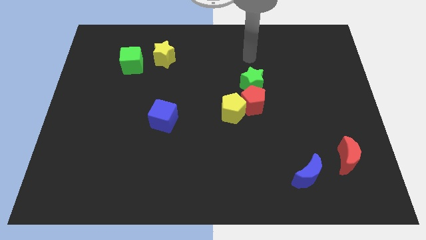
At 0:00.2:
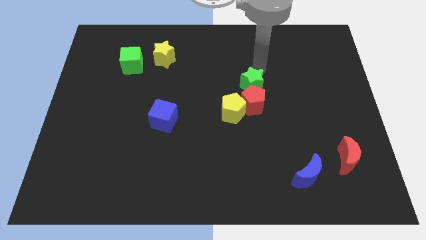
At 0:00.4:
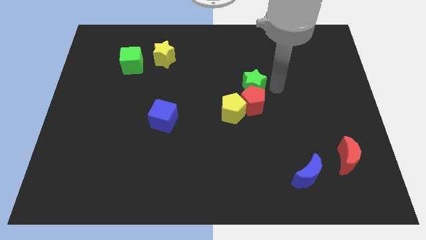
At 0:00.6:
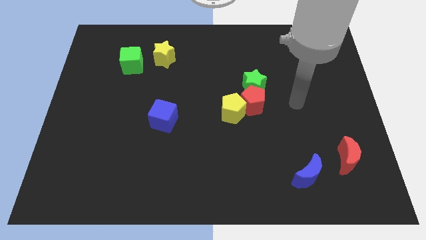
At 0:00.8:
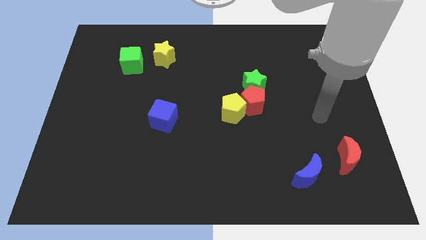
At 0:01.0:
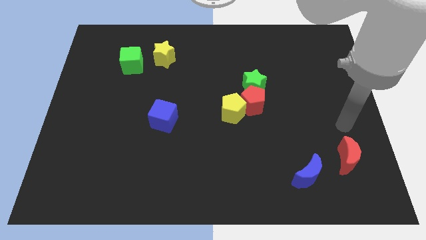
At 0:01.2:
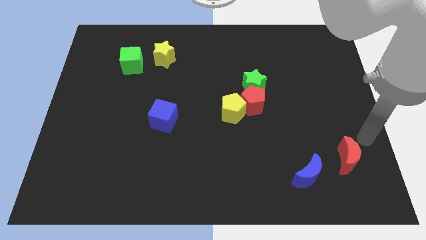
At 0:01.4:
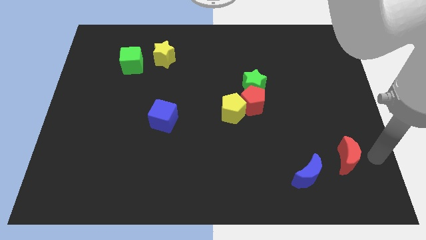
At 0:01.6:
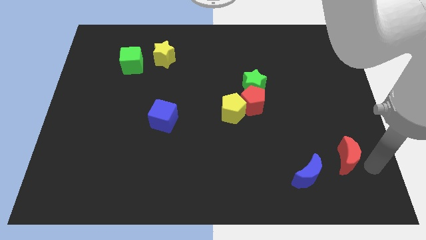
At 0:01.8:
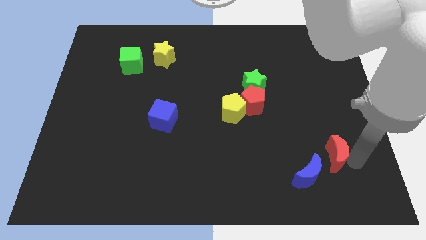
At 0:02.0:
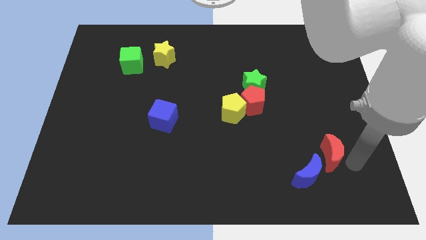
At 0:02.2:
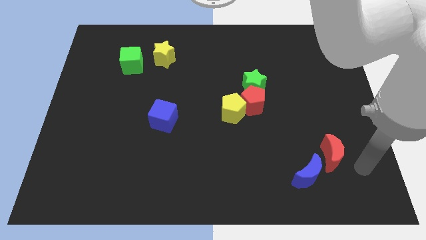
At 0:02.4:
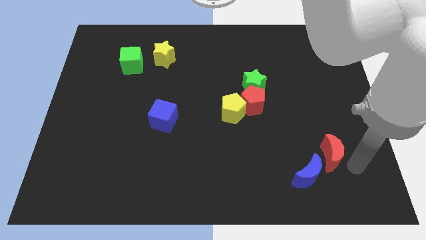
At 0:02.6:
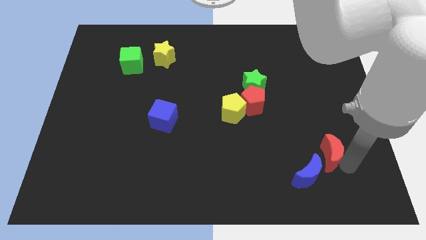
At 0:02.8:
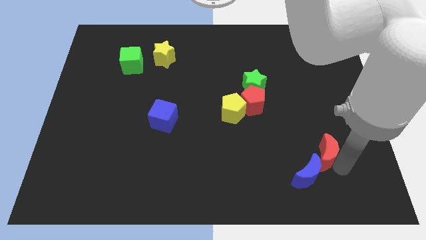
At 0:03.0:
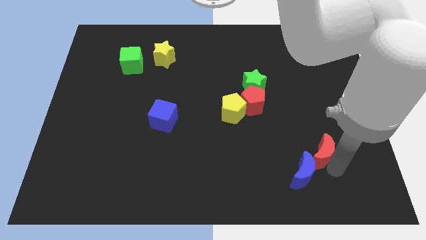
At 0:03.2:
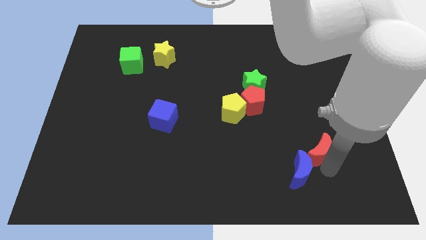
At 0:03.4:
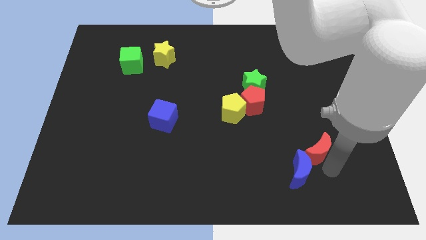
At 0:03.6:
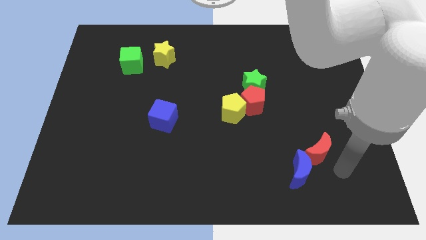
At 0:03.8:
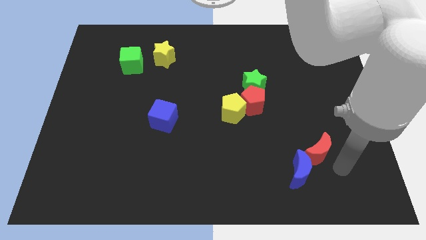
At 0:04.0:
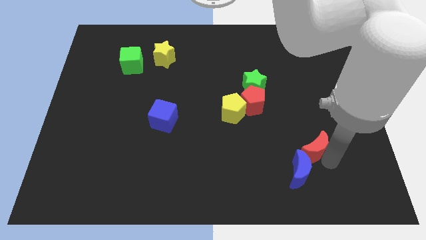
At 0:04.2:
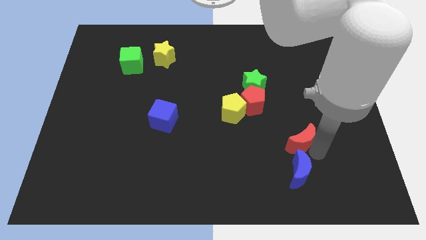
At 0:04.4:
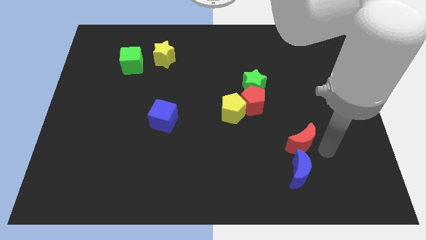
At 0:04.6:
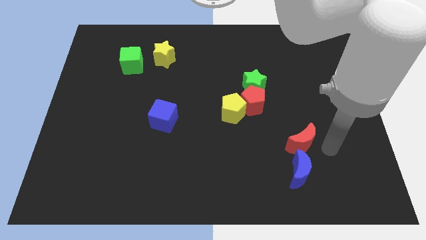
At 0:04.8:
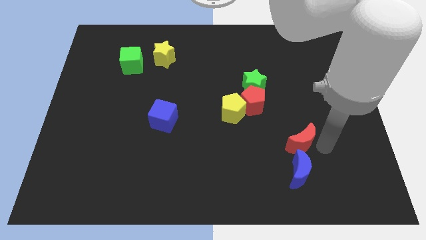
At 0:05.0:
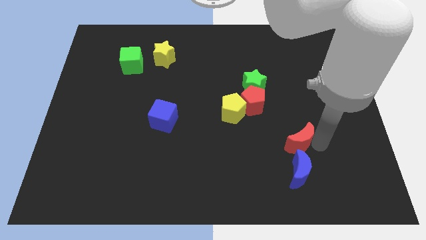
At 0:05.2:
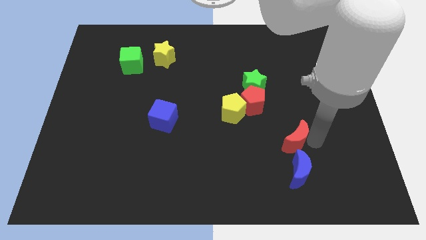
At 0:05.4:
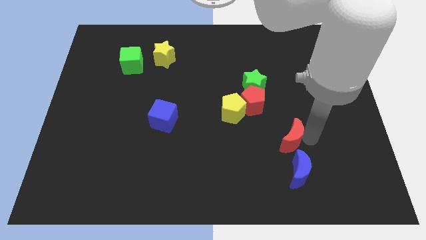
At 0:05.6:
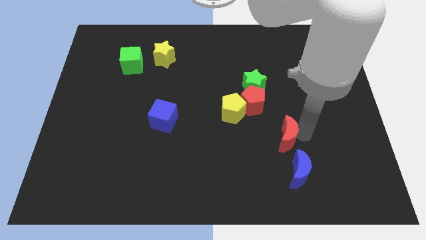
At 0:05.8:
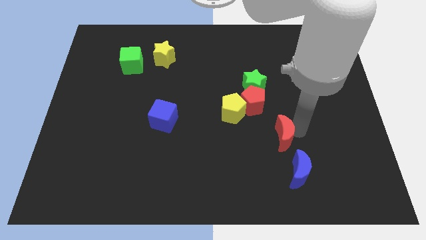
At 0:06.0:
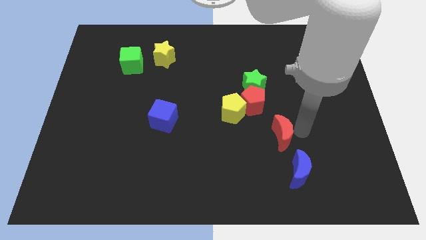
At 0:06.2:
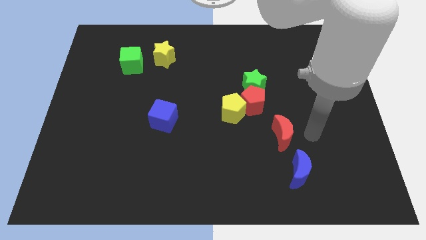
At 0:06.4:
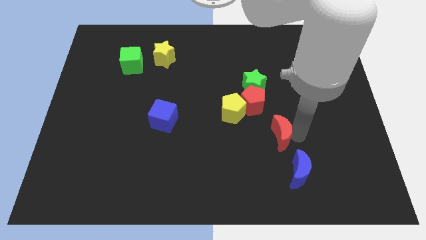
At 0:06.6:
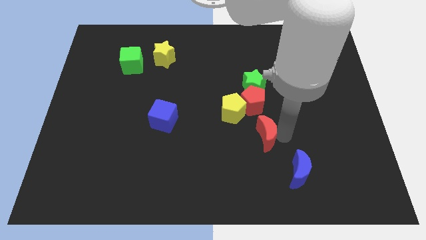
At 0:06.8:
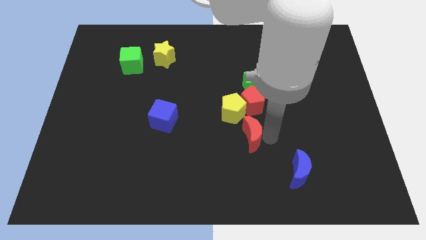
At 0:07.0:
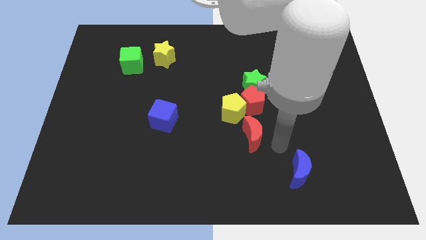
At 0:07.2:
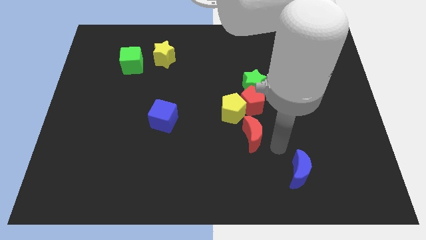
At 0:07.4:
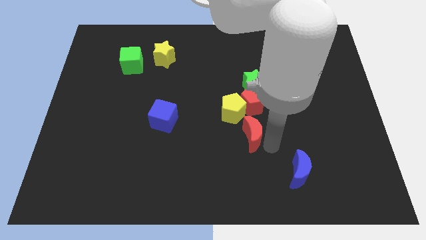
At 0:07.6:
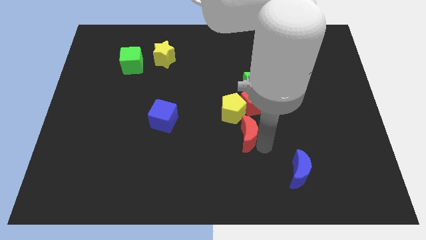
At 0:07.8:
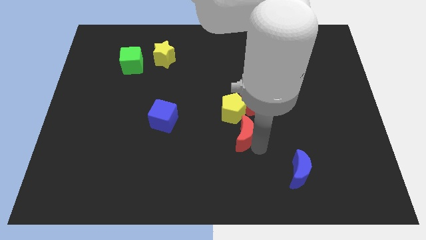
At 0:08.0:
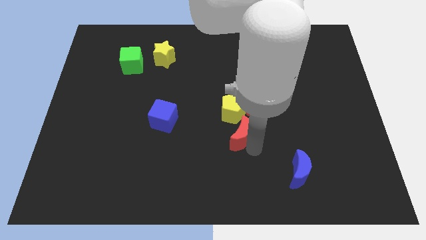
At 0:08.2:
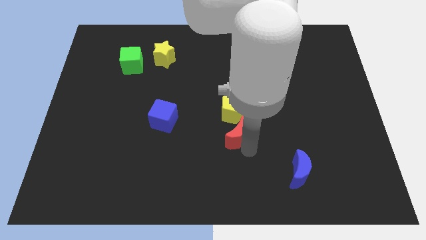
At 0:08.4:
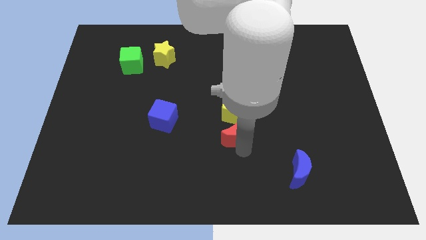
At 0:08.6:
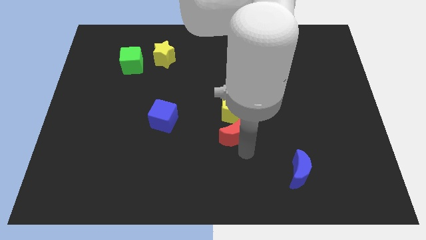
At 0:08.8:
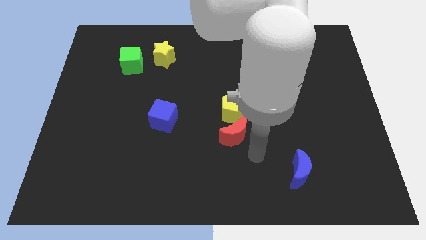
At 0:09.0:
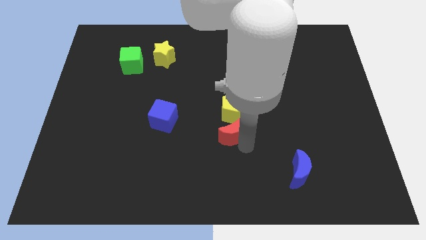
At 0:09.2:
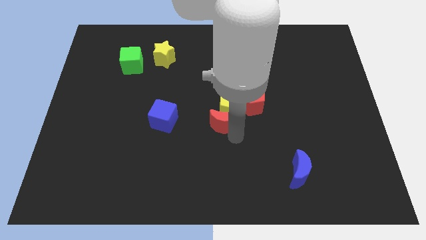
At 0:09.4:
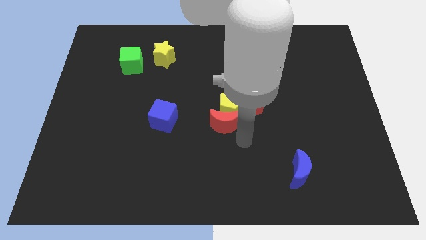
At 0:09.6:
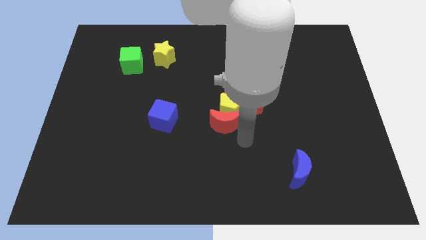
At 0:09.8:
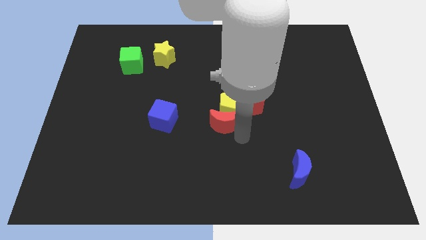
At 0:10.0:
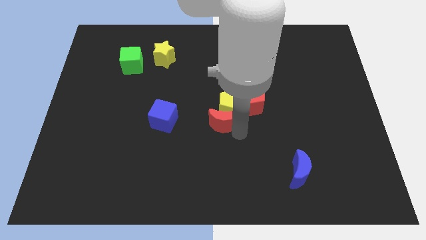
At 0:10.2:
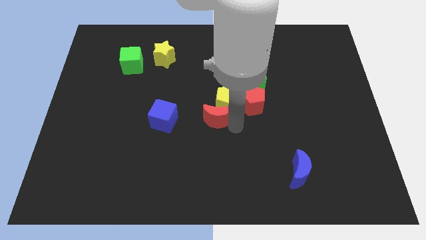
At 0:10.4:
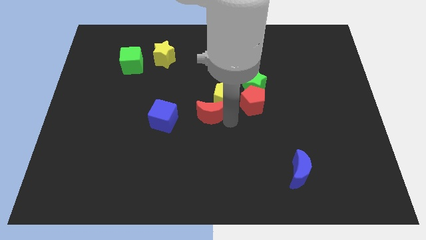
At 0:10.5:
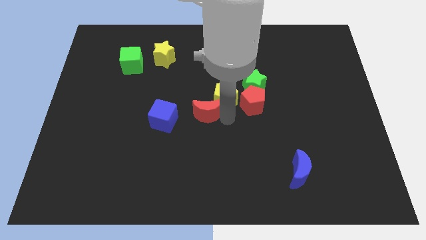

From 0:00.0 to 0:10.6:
slide the red moon left of the yellow pentagon

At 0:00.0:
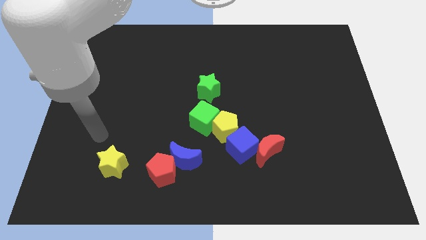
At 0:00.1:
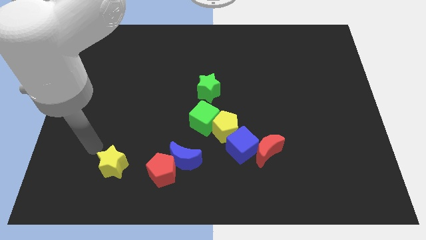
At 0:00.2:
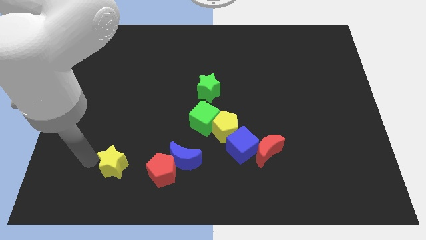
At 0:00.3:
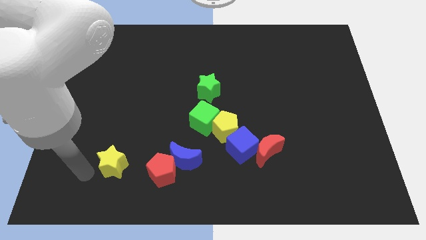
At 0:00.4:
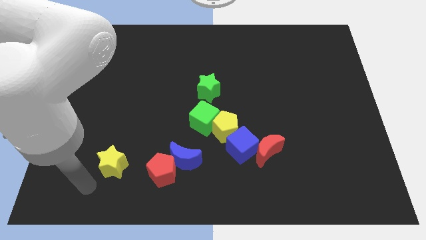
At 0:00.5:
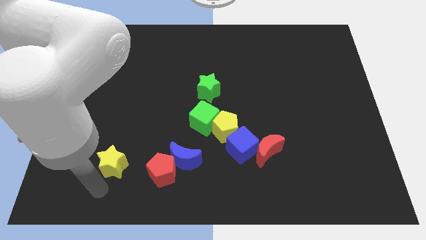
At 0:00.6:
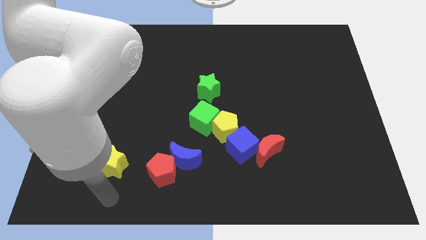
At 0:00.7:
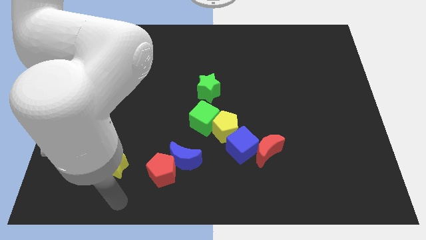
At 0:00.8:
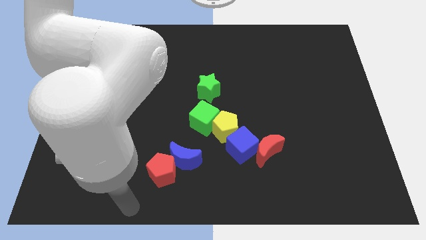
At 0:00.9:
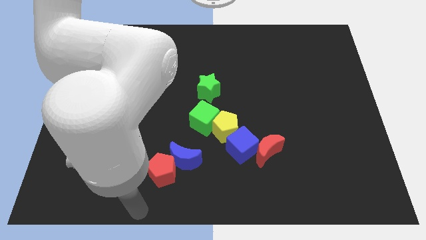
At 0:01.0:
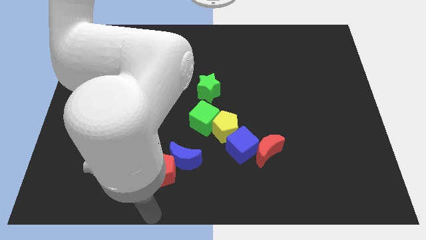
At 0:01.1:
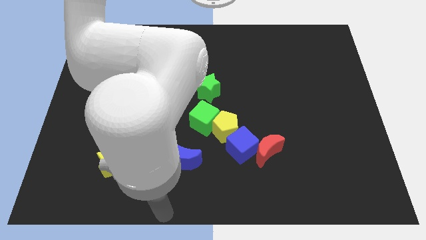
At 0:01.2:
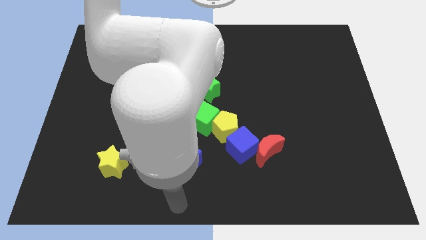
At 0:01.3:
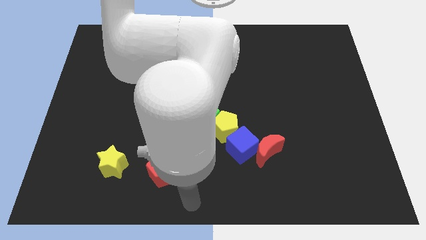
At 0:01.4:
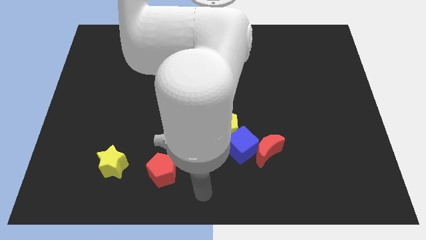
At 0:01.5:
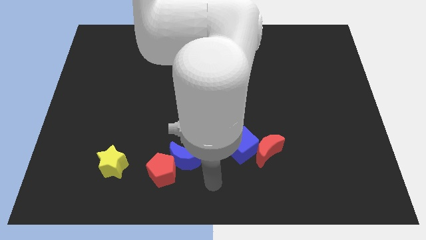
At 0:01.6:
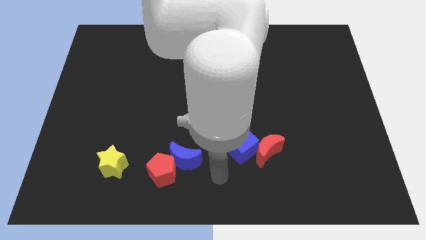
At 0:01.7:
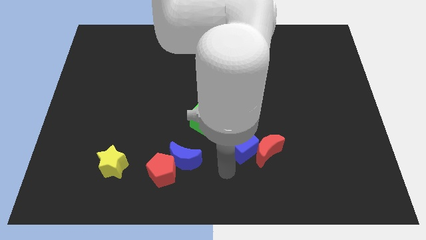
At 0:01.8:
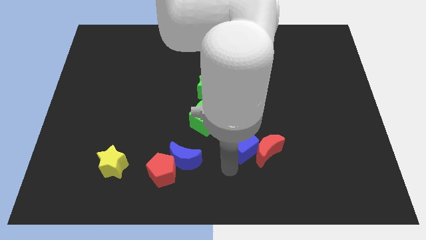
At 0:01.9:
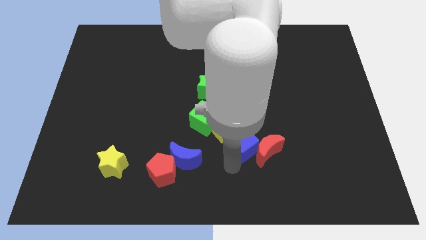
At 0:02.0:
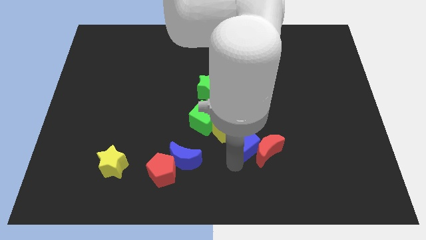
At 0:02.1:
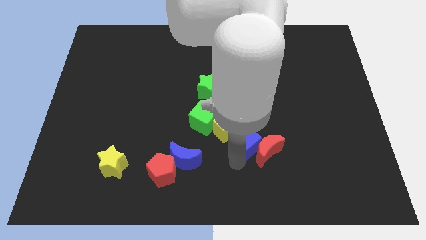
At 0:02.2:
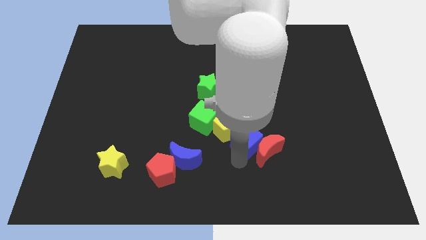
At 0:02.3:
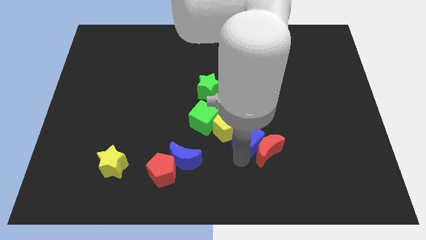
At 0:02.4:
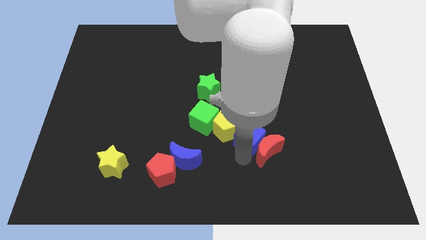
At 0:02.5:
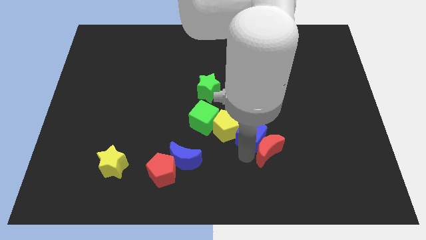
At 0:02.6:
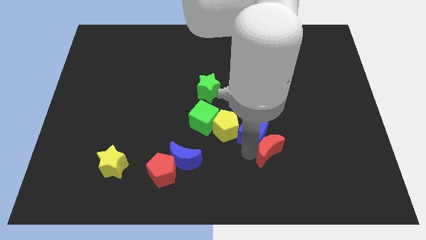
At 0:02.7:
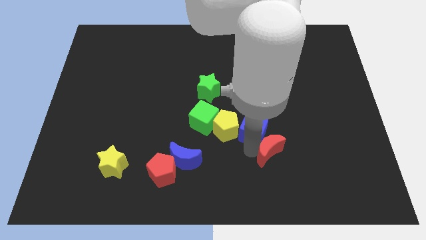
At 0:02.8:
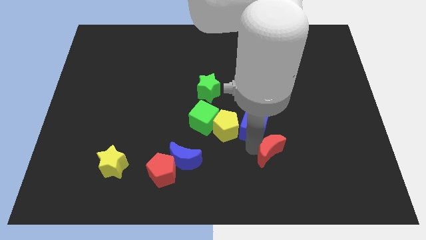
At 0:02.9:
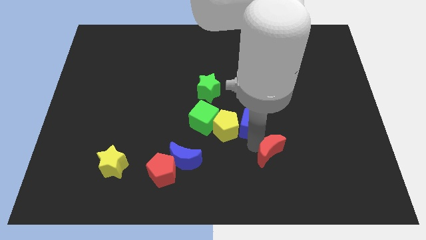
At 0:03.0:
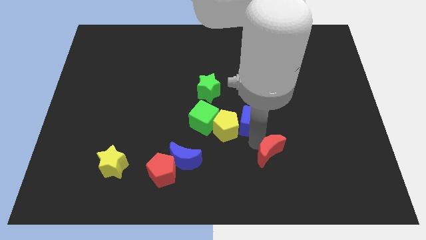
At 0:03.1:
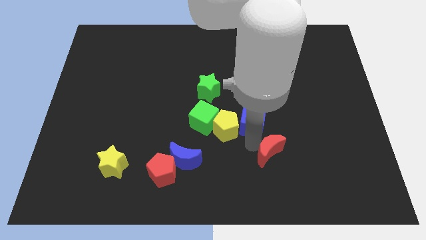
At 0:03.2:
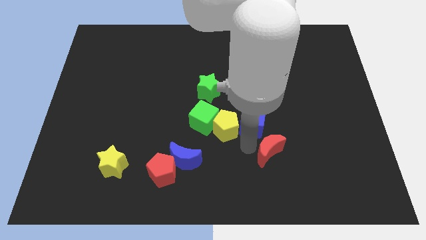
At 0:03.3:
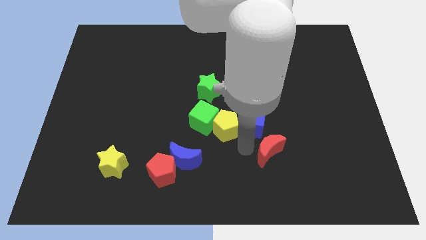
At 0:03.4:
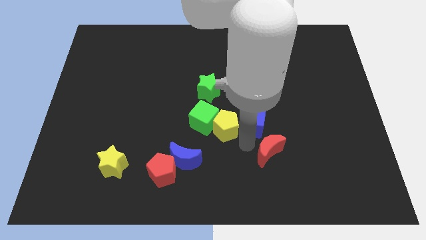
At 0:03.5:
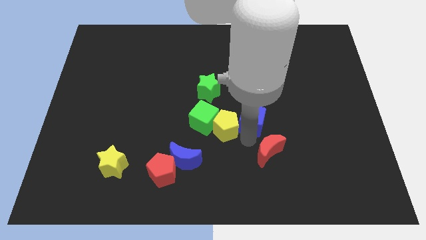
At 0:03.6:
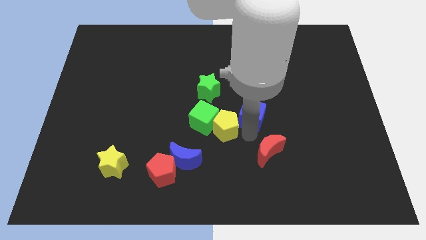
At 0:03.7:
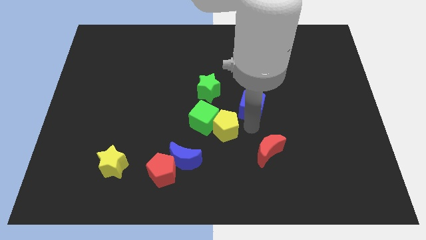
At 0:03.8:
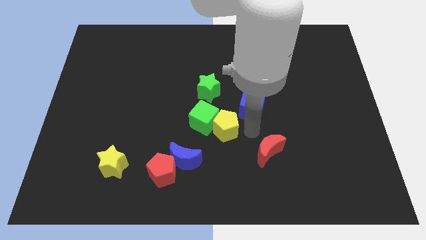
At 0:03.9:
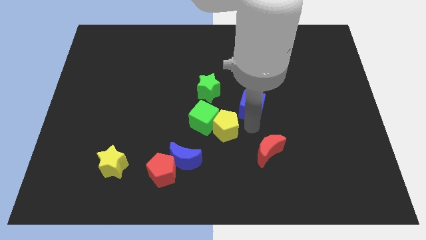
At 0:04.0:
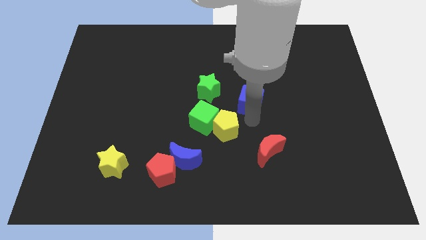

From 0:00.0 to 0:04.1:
move the blue cube just right of the green star
